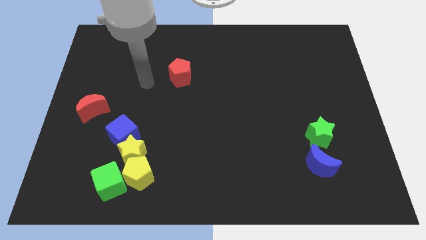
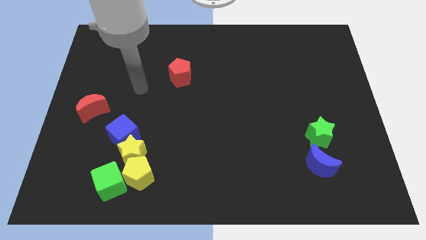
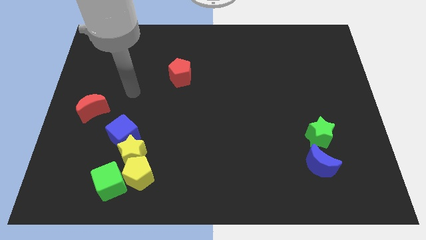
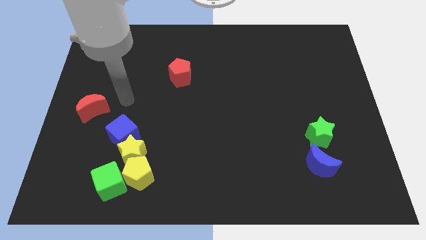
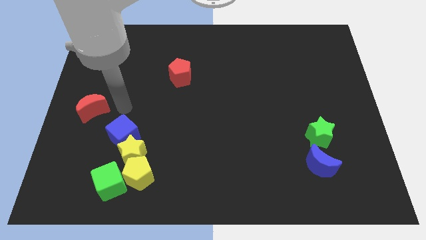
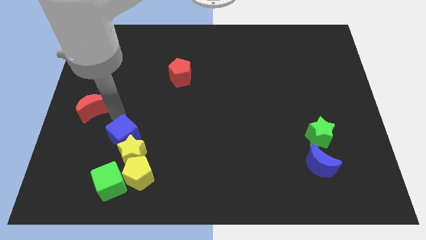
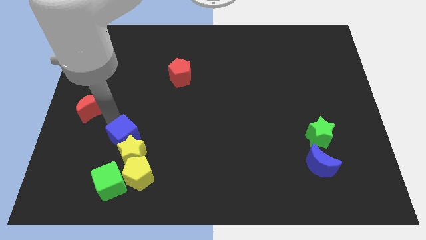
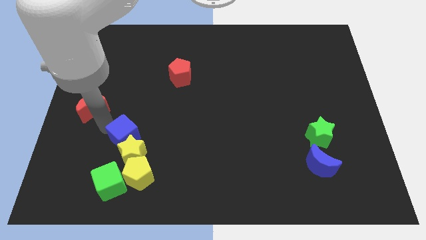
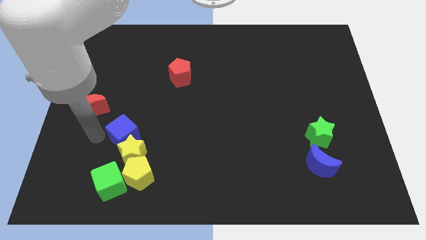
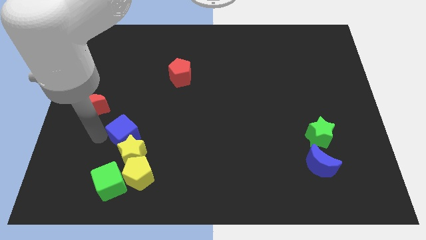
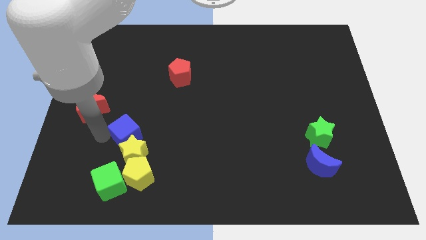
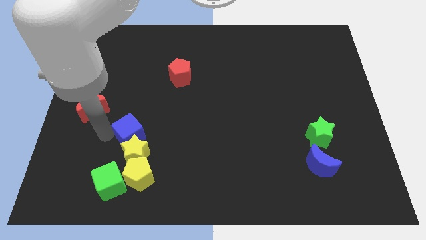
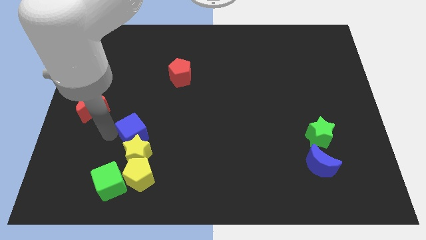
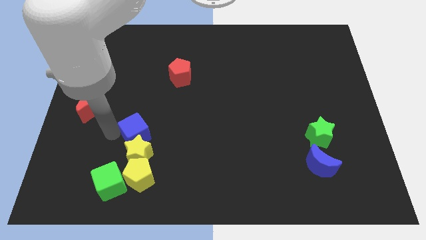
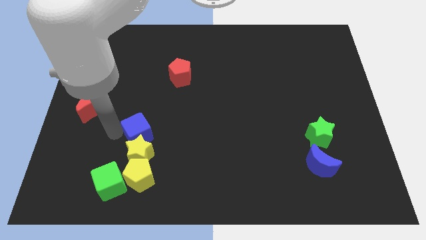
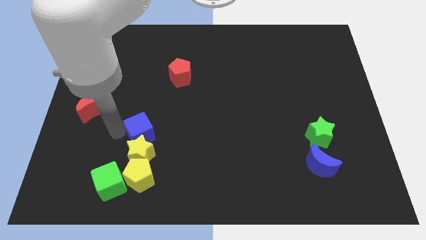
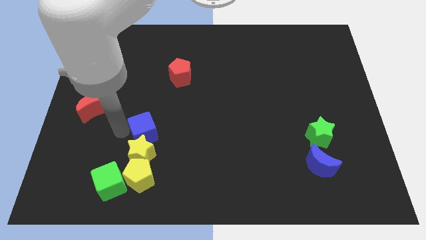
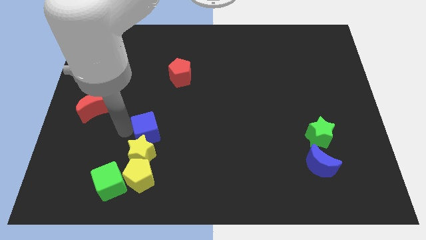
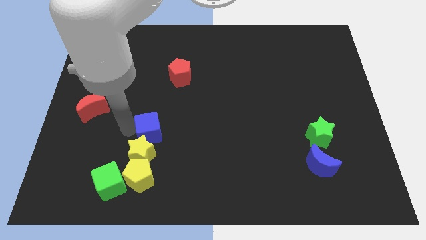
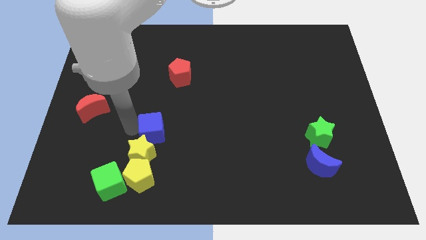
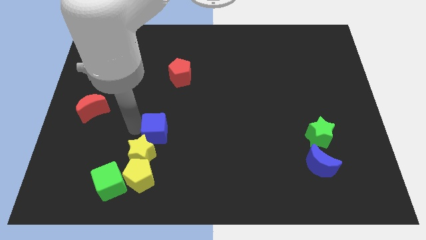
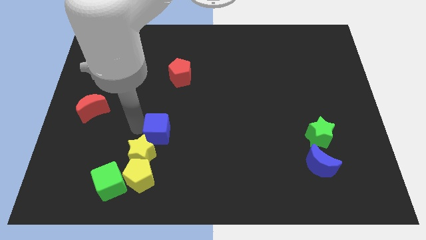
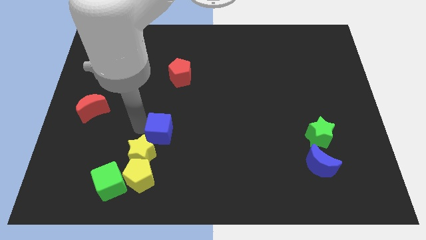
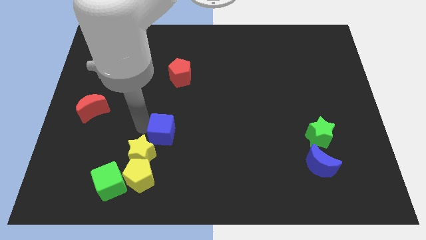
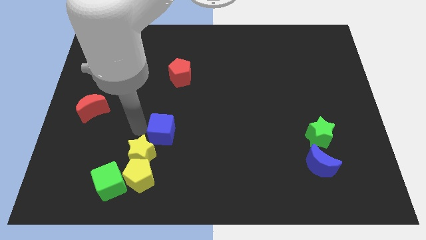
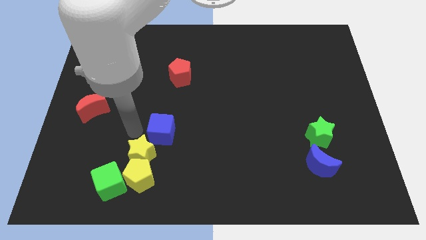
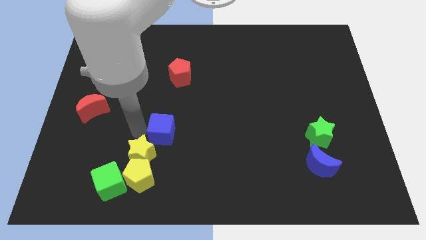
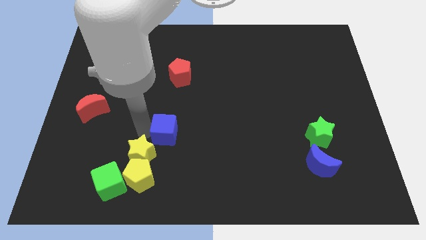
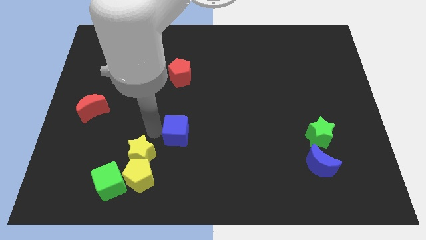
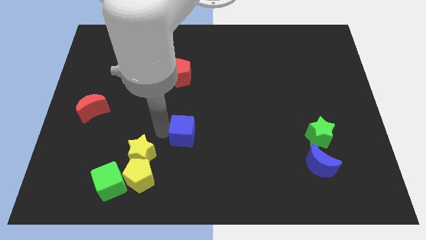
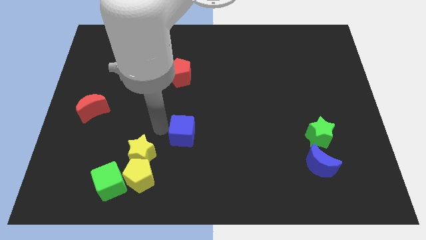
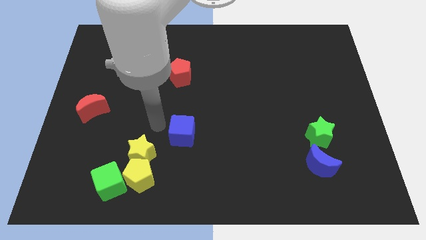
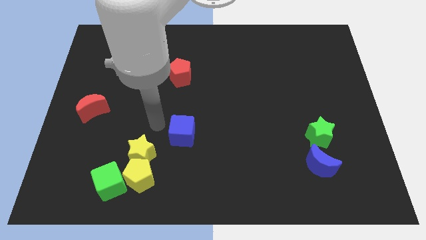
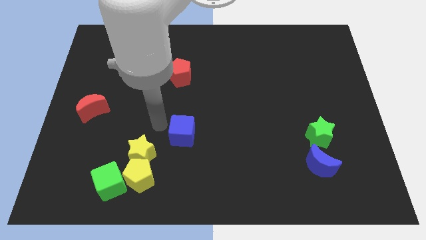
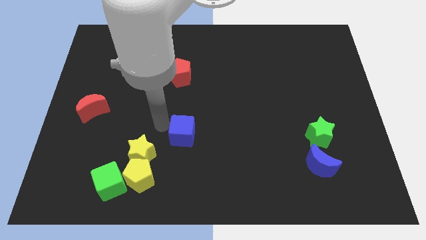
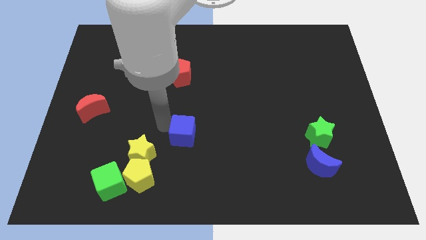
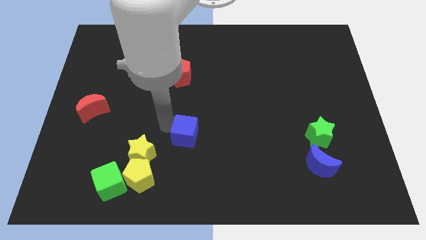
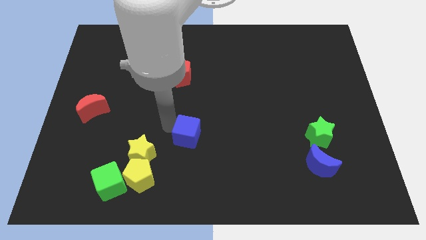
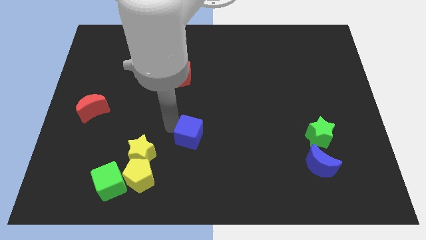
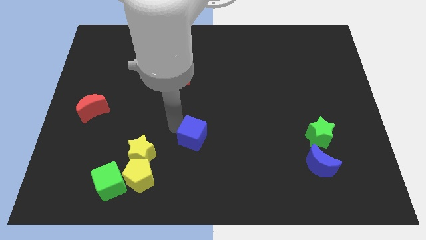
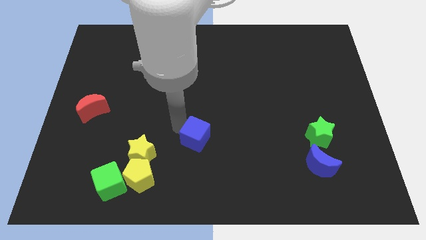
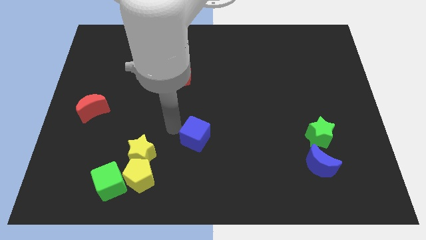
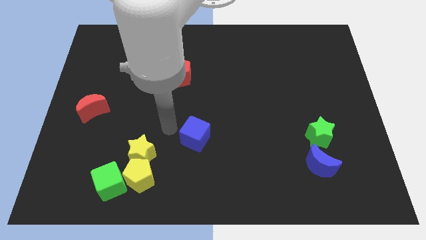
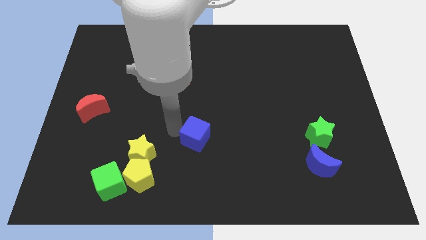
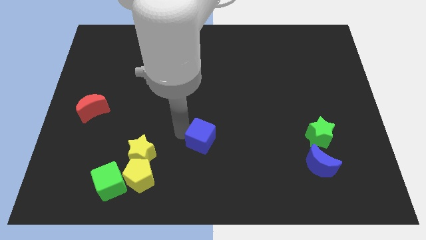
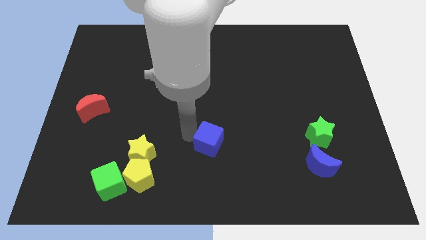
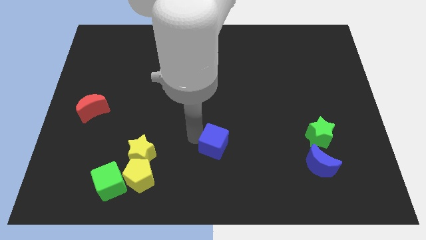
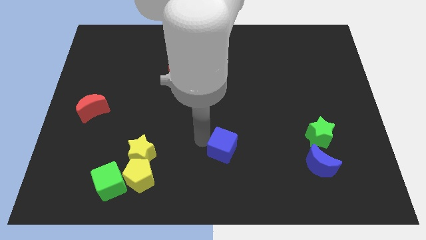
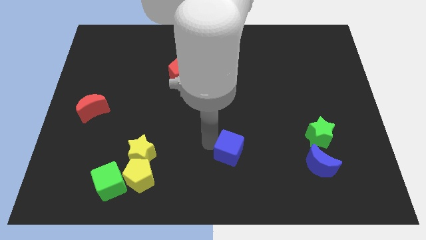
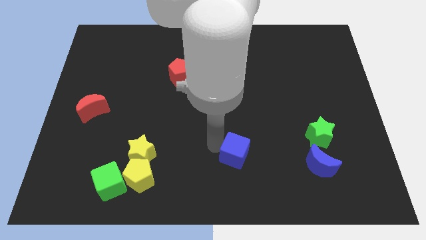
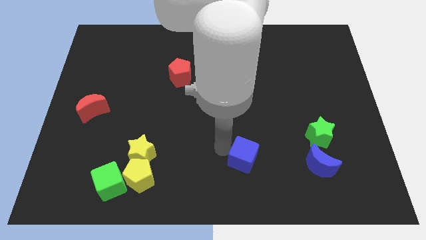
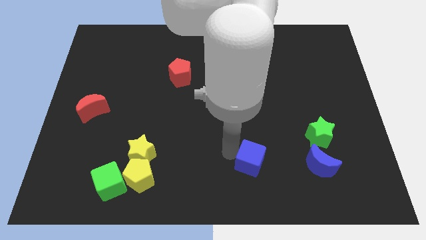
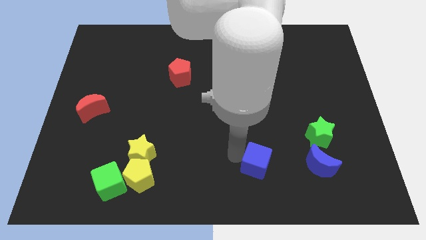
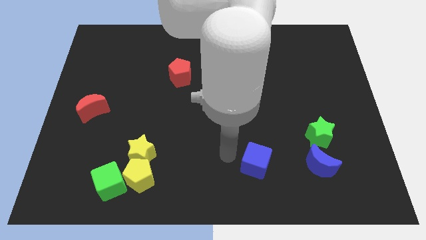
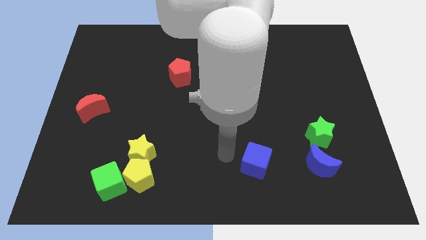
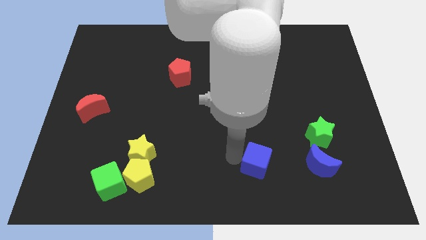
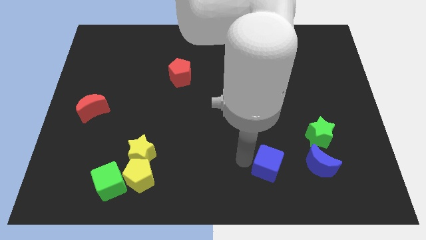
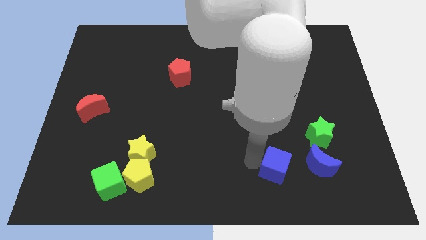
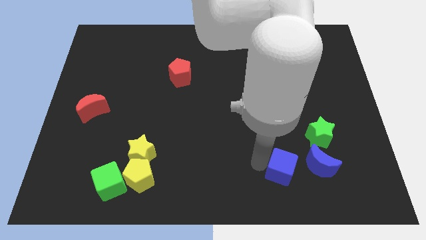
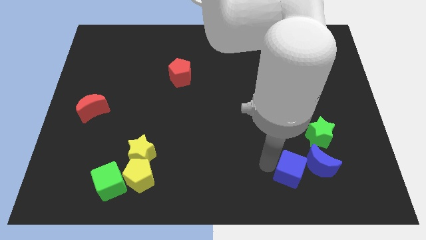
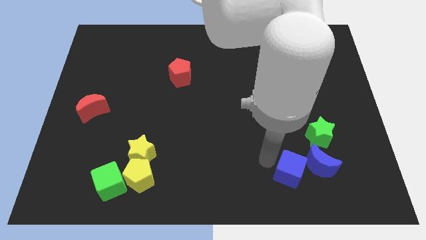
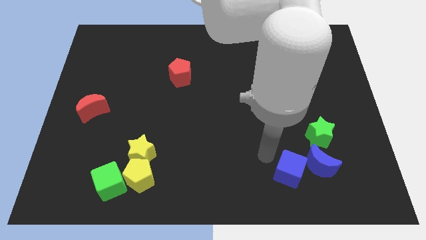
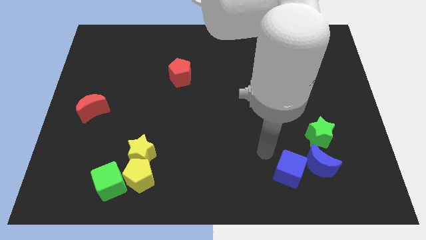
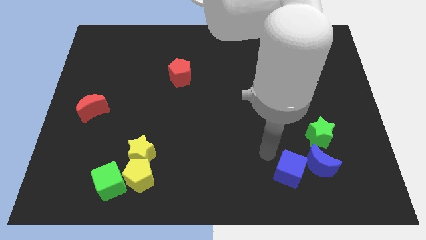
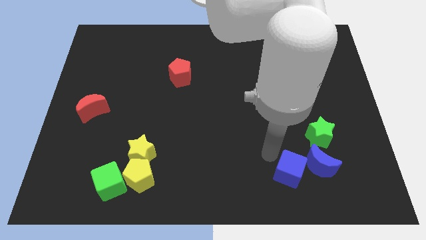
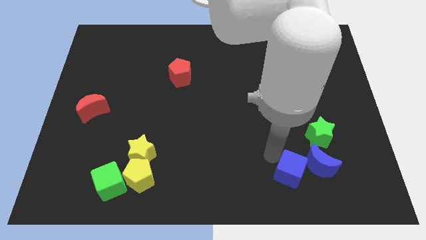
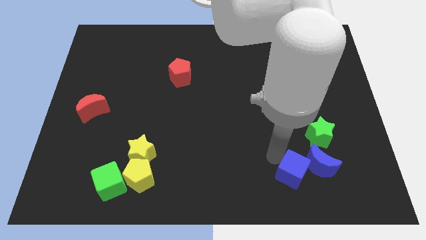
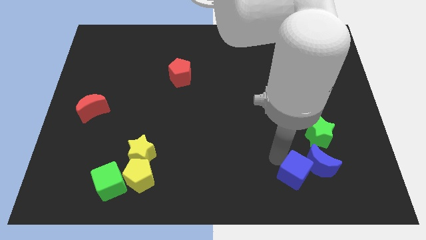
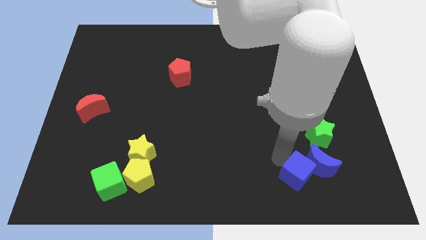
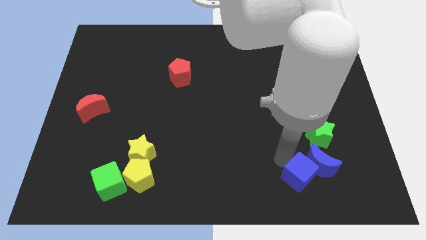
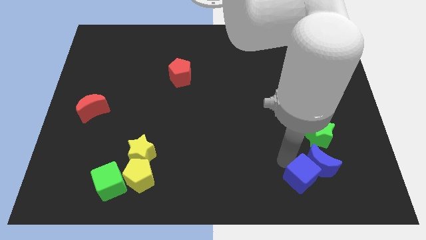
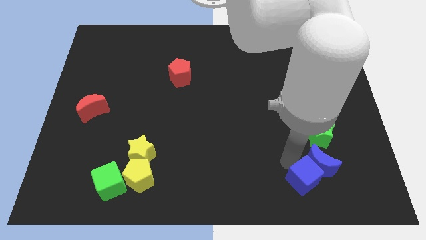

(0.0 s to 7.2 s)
put the blue cube below the green star

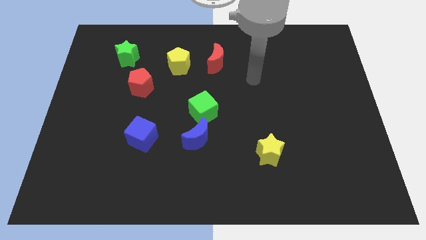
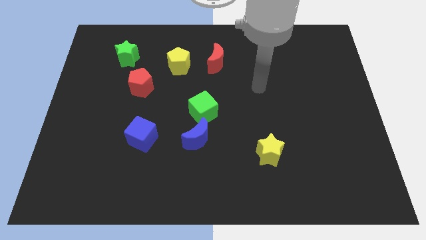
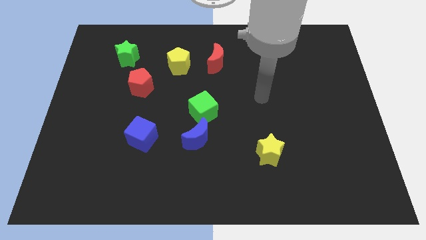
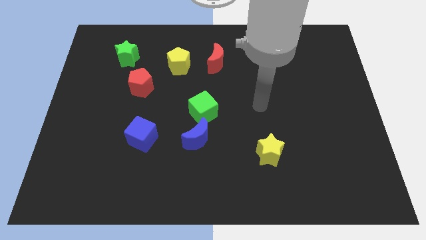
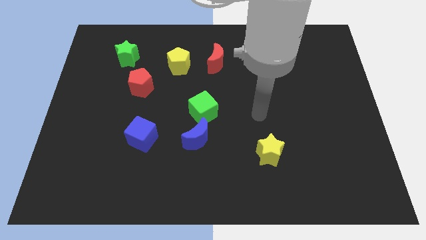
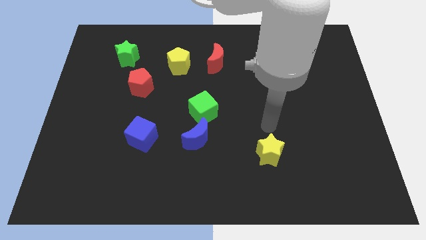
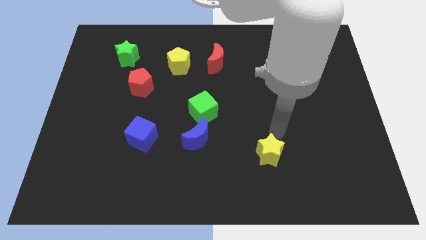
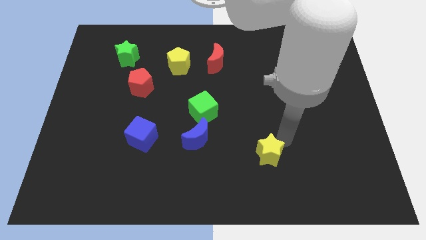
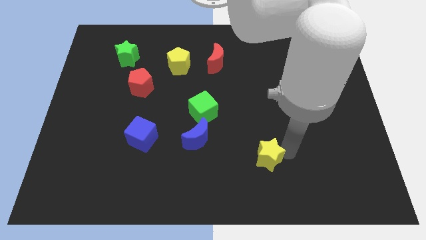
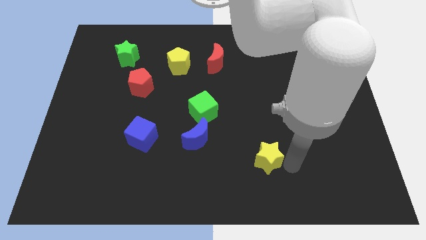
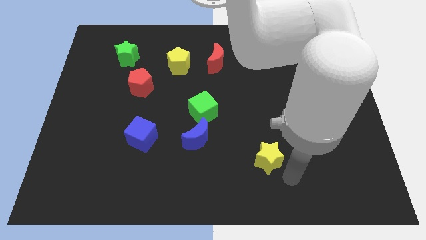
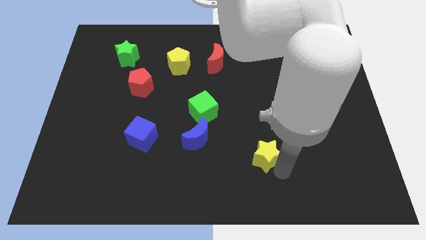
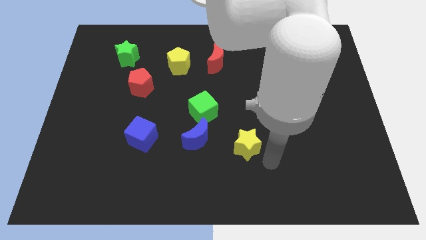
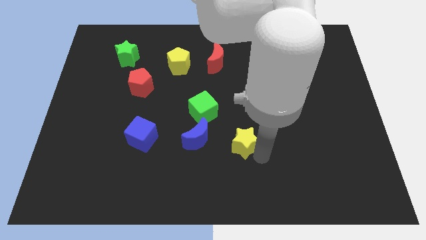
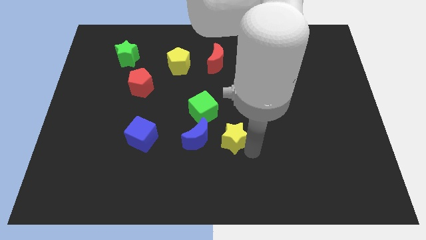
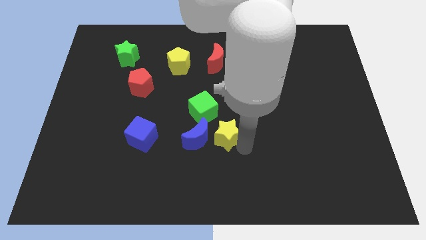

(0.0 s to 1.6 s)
slide the yellow star to the top right of the blue moon
